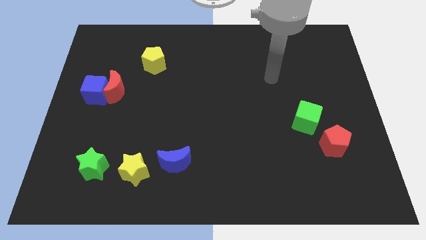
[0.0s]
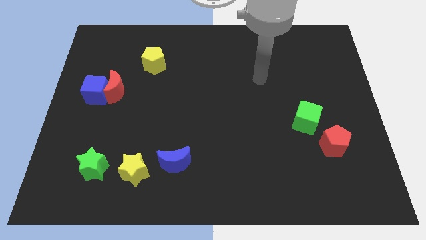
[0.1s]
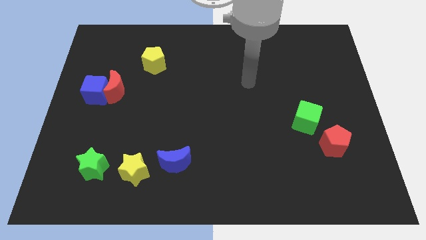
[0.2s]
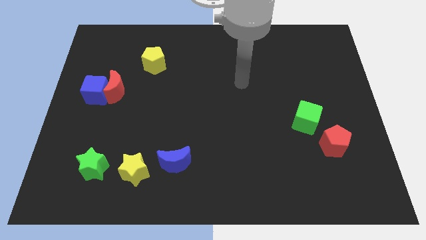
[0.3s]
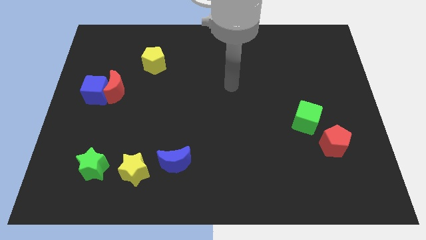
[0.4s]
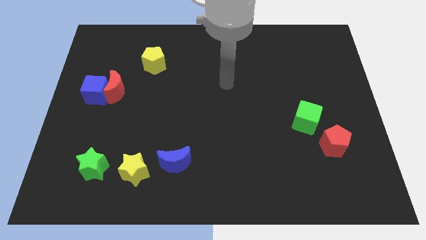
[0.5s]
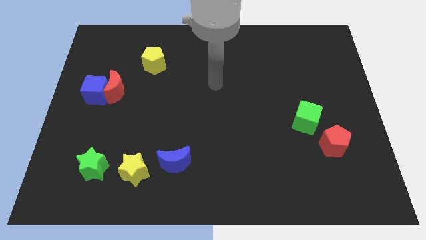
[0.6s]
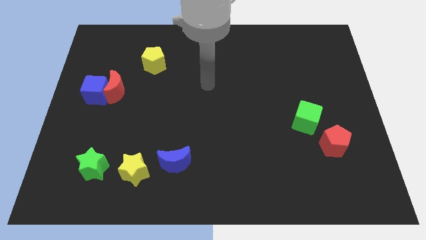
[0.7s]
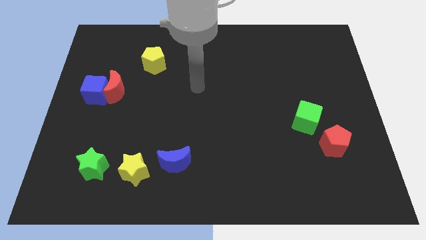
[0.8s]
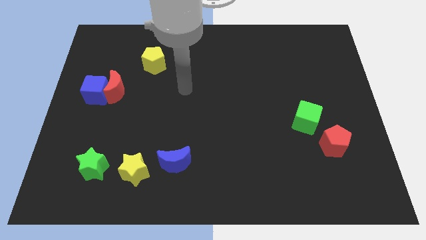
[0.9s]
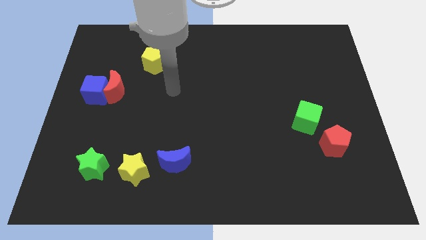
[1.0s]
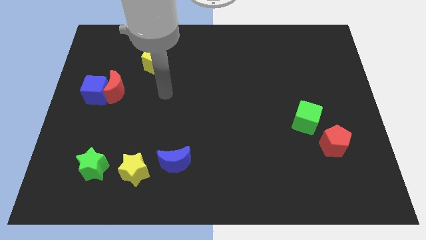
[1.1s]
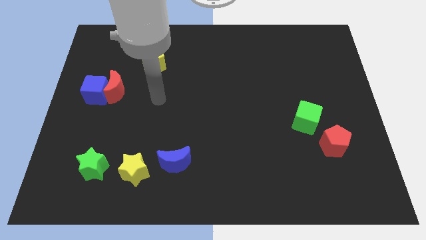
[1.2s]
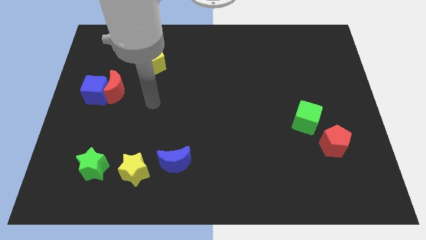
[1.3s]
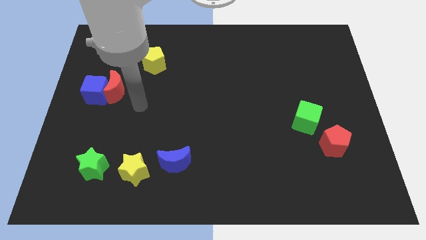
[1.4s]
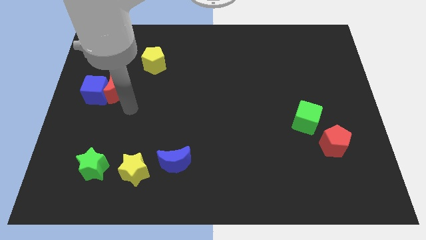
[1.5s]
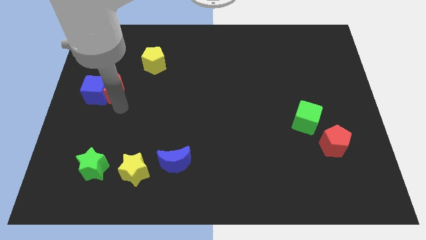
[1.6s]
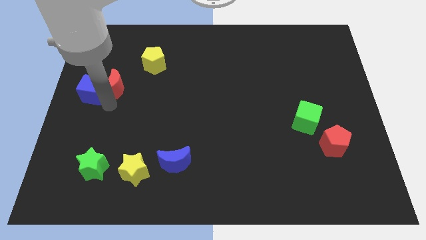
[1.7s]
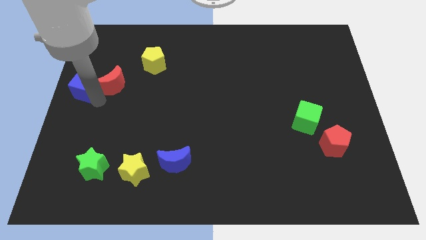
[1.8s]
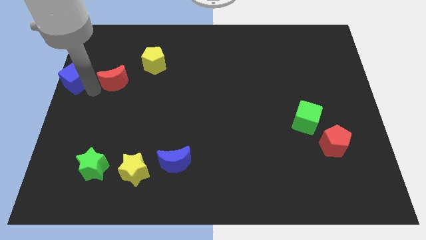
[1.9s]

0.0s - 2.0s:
separate the red moon from the blue cube

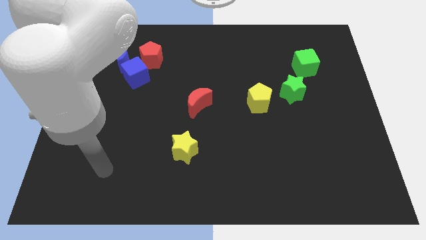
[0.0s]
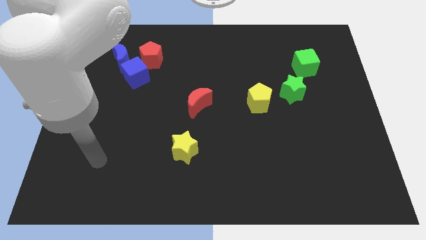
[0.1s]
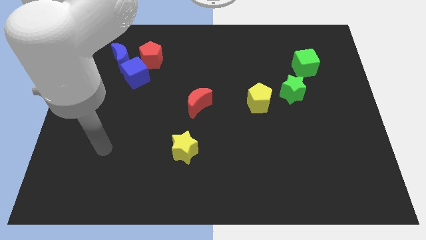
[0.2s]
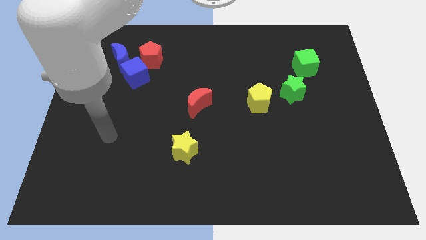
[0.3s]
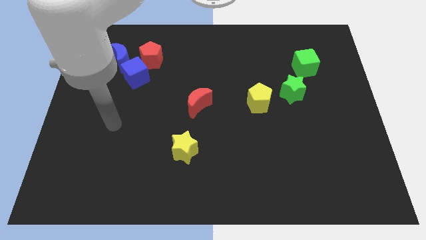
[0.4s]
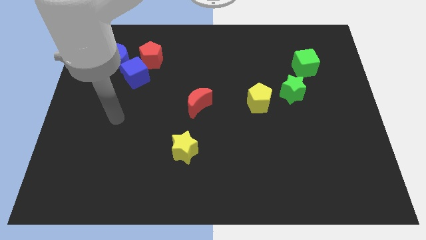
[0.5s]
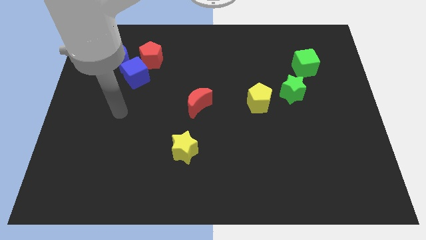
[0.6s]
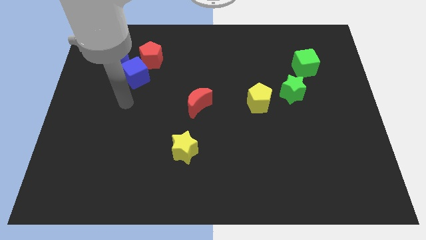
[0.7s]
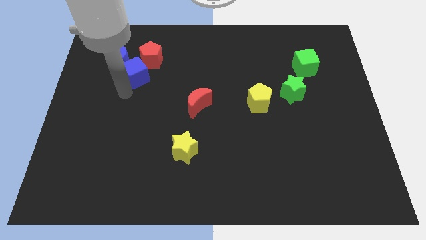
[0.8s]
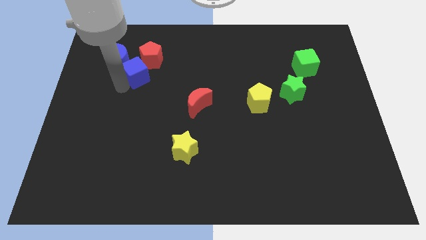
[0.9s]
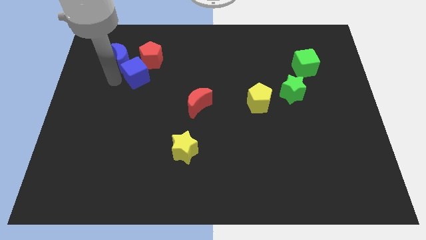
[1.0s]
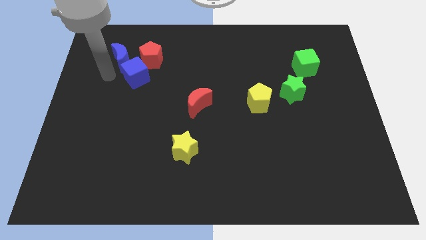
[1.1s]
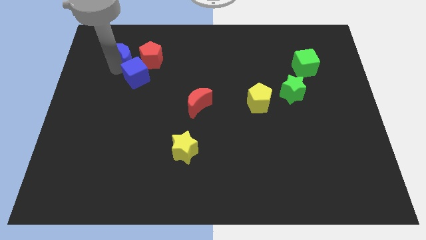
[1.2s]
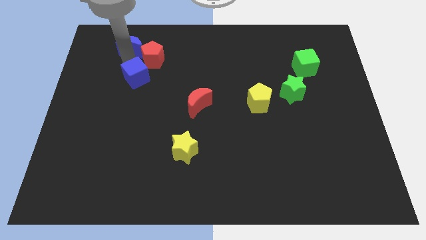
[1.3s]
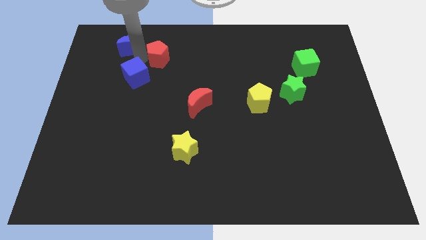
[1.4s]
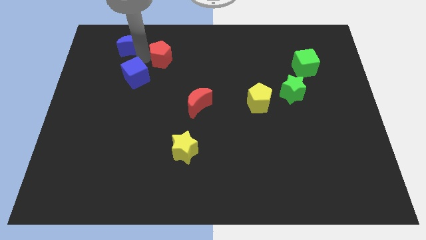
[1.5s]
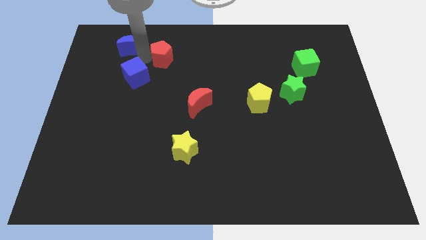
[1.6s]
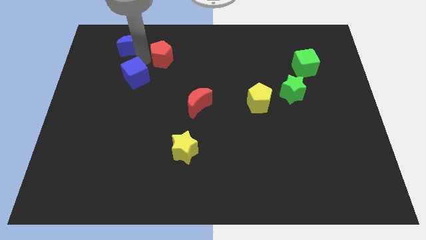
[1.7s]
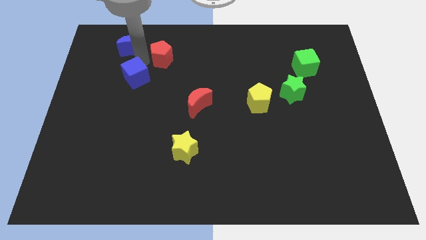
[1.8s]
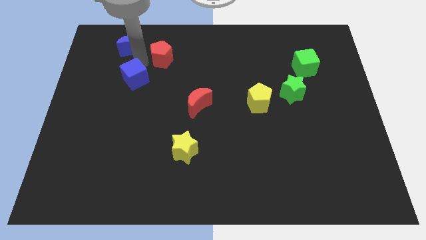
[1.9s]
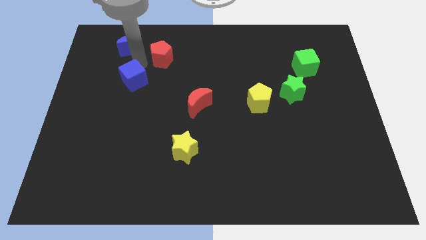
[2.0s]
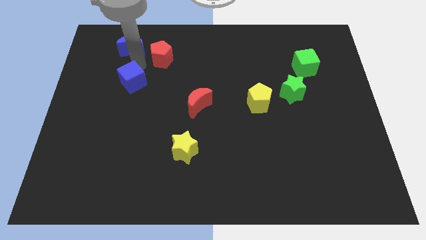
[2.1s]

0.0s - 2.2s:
separate the blue cube from the blue moon and red pentagon

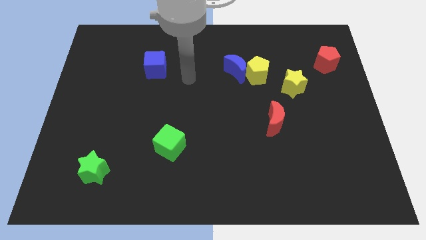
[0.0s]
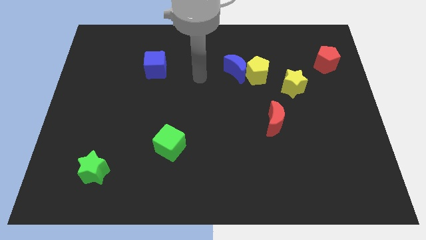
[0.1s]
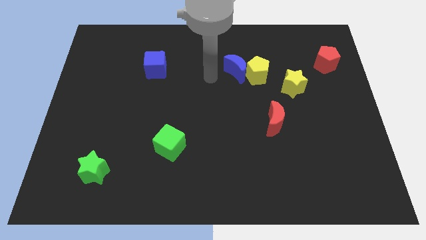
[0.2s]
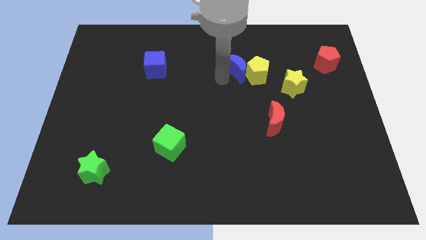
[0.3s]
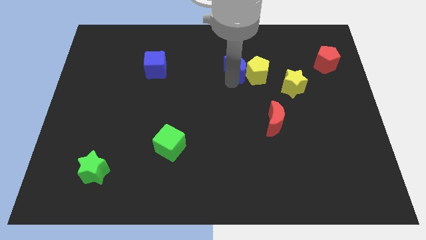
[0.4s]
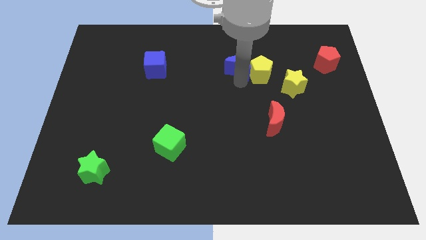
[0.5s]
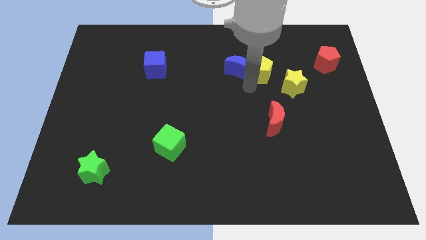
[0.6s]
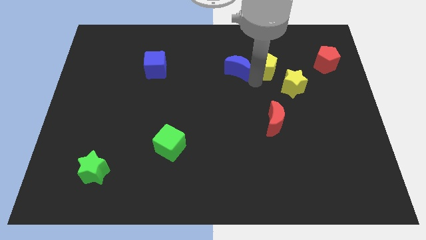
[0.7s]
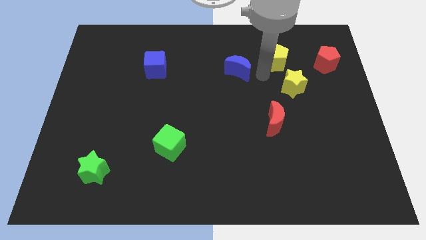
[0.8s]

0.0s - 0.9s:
move the blue moon away from the yellow pentagon

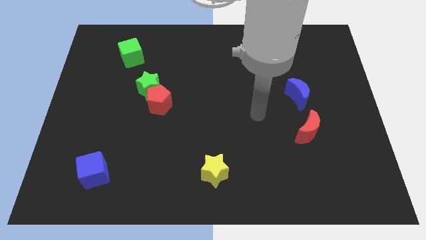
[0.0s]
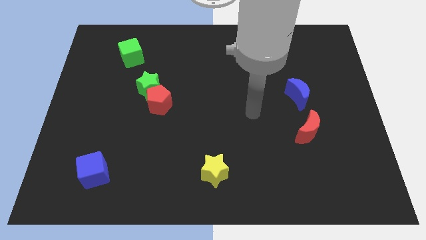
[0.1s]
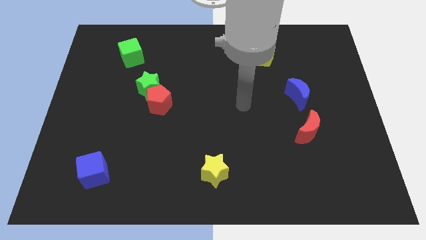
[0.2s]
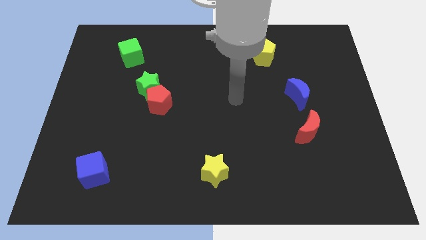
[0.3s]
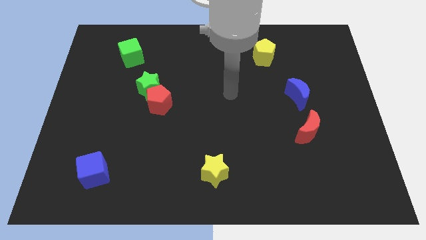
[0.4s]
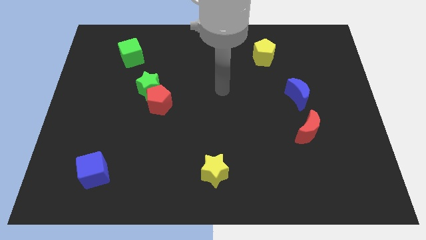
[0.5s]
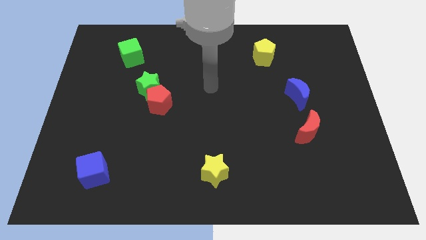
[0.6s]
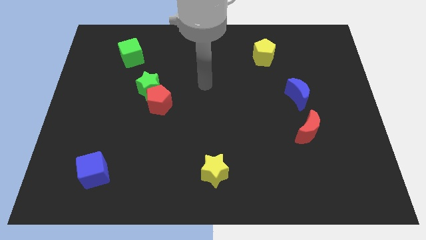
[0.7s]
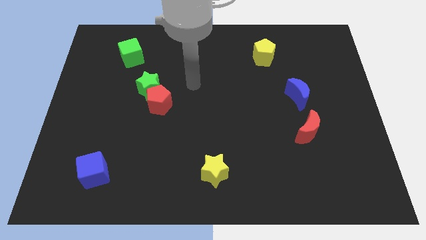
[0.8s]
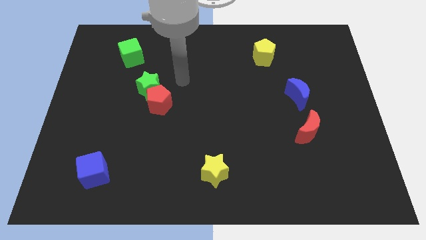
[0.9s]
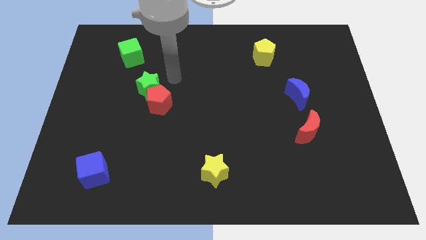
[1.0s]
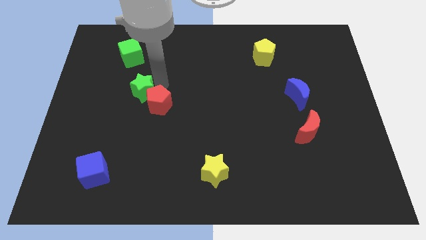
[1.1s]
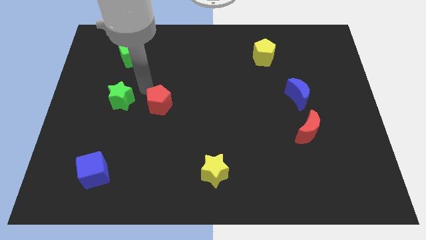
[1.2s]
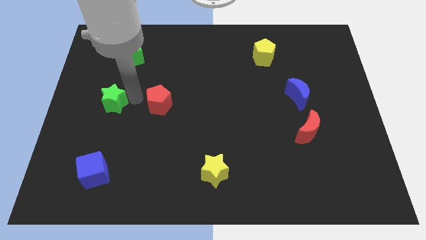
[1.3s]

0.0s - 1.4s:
pull the red pentagon apart from the green star

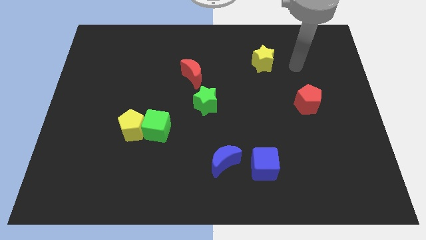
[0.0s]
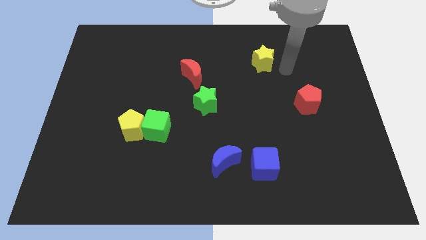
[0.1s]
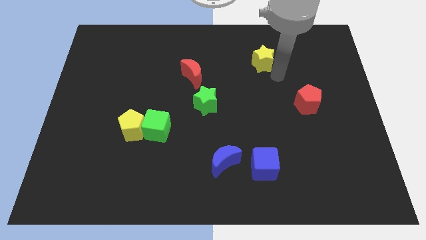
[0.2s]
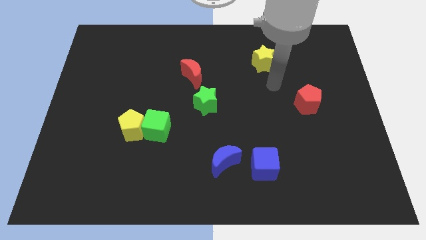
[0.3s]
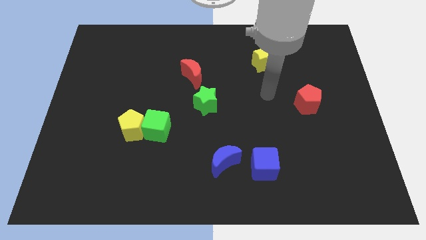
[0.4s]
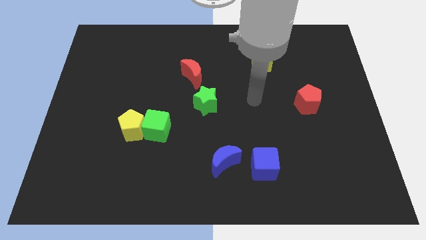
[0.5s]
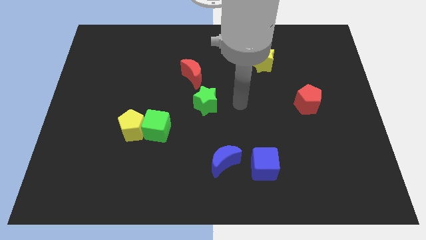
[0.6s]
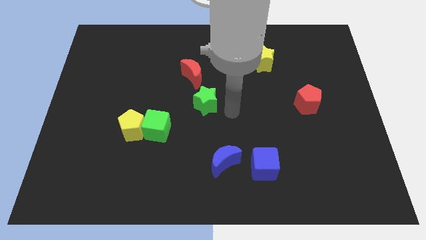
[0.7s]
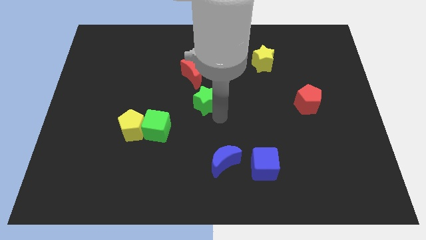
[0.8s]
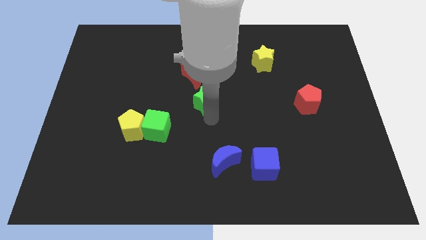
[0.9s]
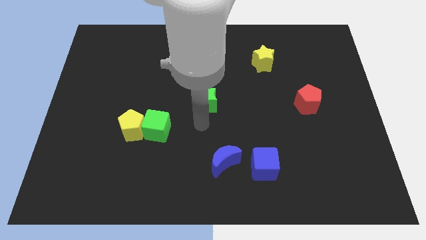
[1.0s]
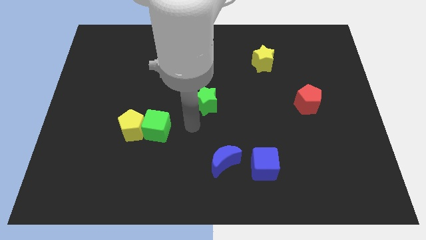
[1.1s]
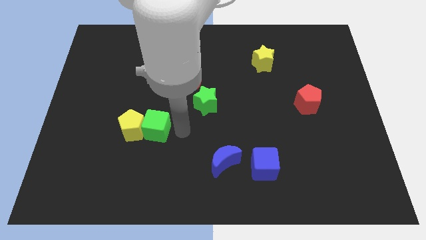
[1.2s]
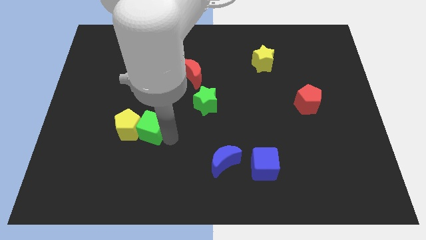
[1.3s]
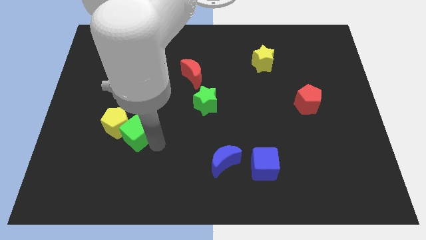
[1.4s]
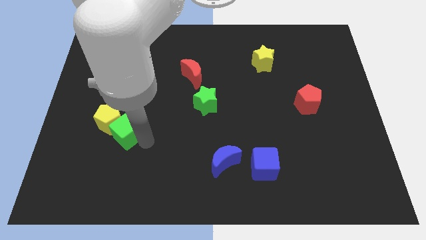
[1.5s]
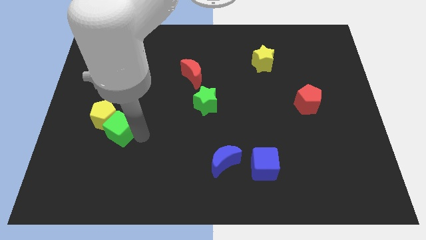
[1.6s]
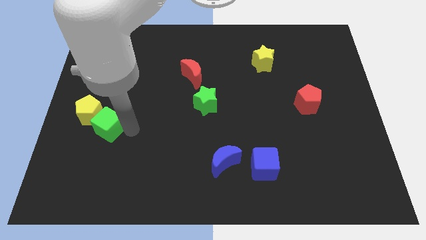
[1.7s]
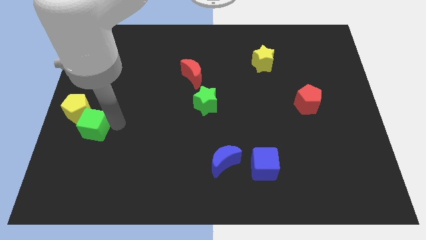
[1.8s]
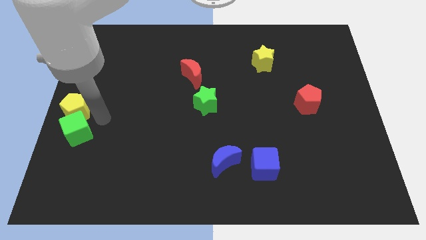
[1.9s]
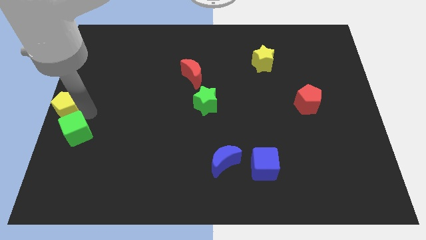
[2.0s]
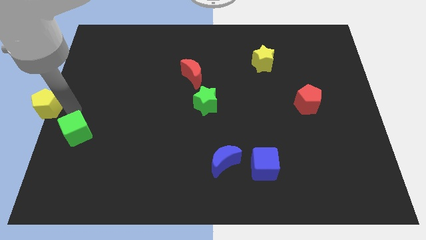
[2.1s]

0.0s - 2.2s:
separate the green cube from the yellow pentagon

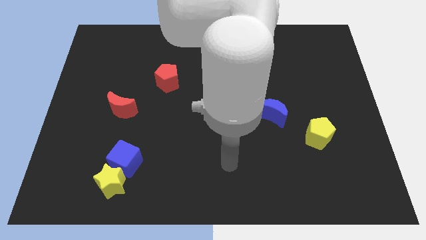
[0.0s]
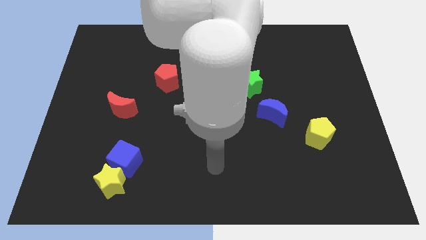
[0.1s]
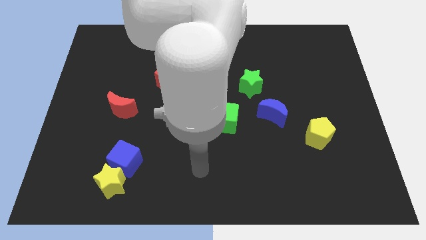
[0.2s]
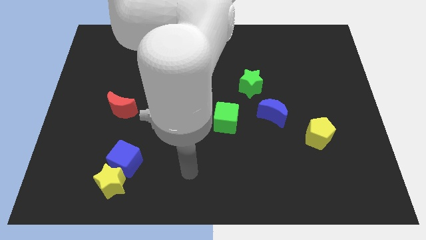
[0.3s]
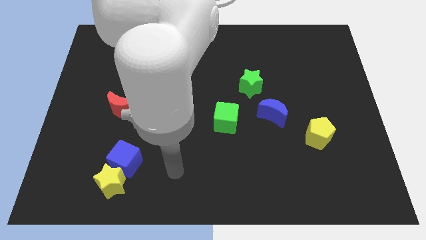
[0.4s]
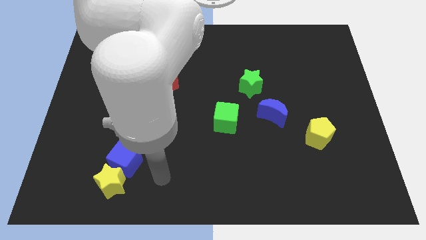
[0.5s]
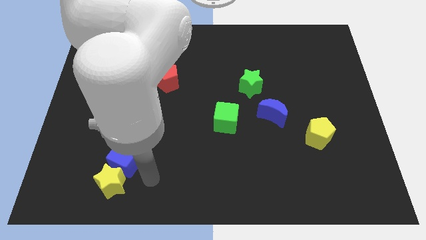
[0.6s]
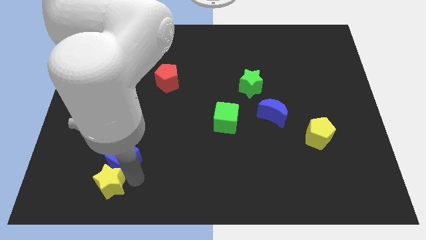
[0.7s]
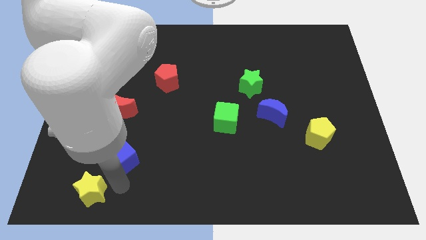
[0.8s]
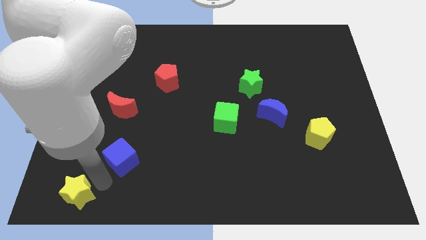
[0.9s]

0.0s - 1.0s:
separate the blue cube from the yellow star
